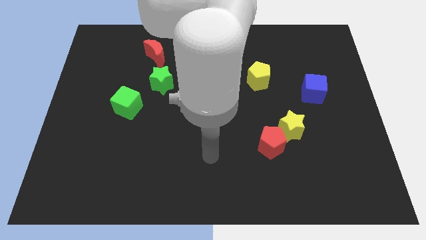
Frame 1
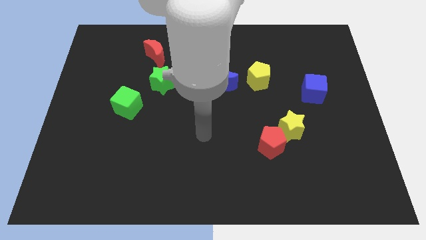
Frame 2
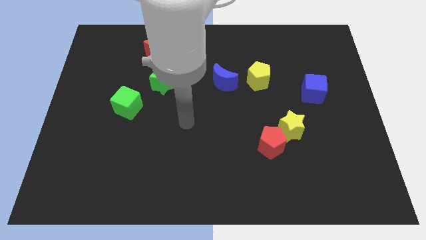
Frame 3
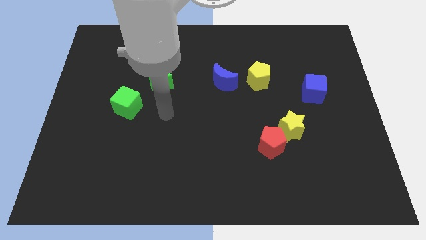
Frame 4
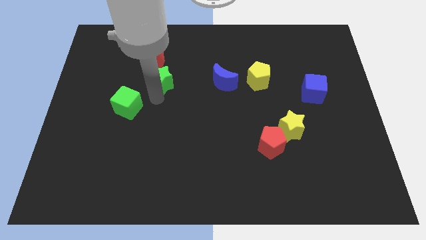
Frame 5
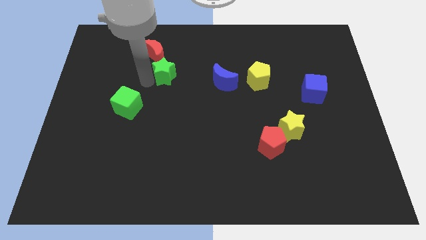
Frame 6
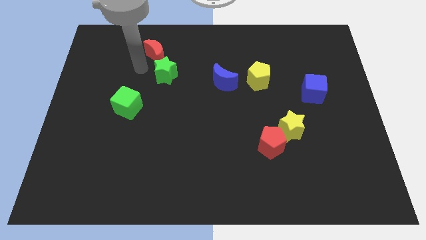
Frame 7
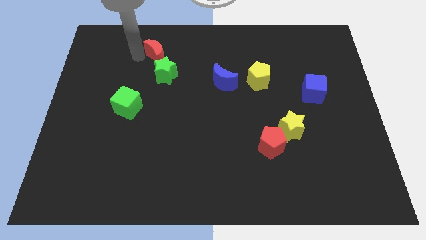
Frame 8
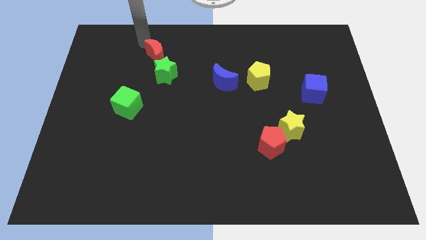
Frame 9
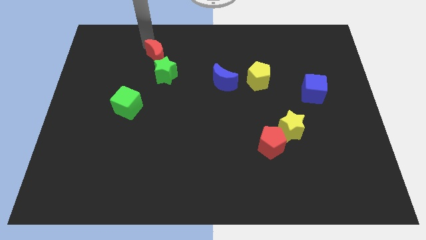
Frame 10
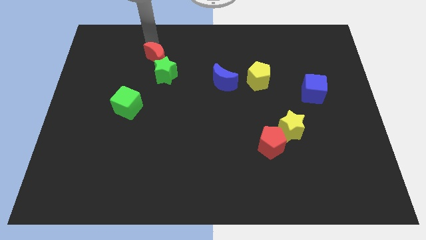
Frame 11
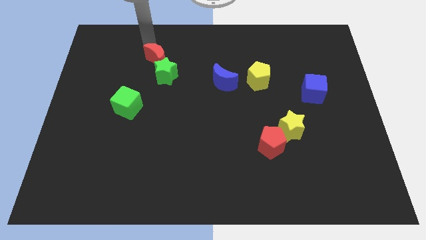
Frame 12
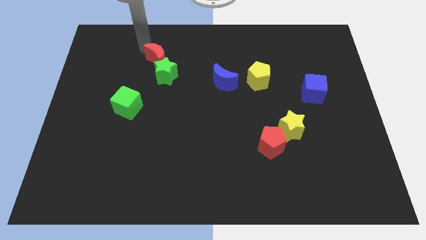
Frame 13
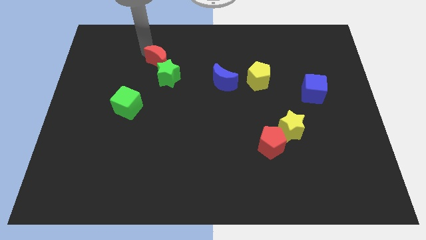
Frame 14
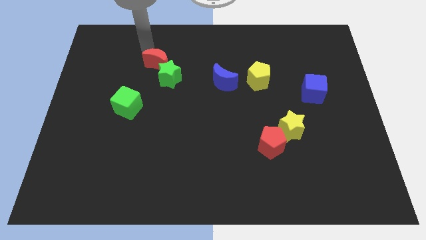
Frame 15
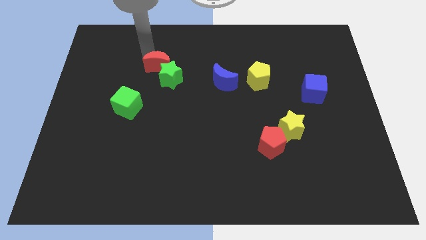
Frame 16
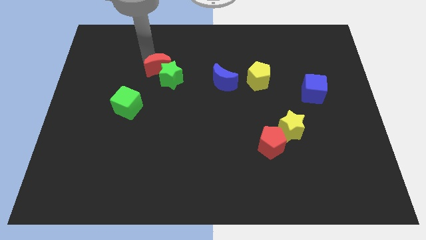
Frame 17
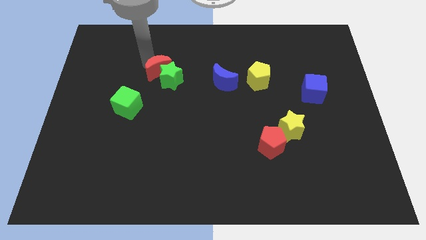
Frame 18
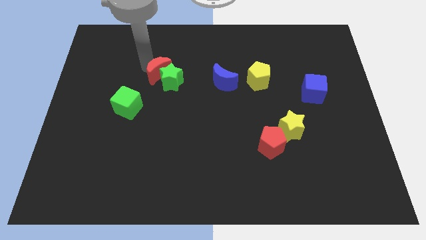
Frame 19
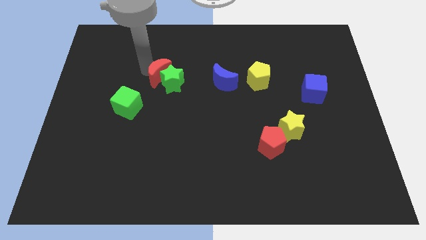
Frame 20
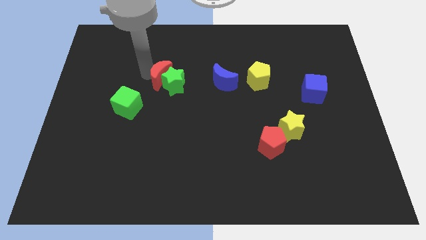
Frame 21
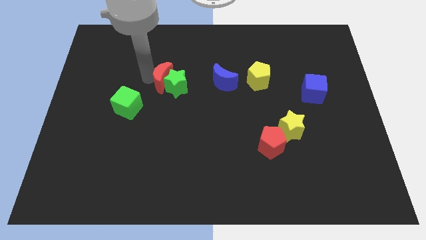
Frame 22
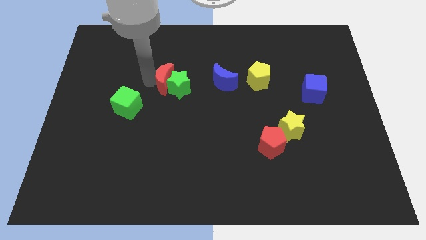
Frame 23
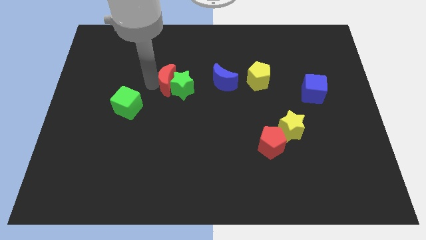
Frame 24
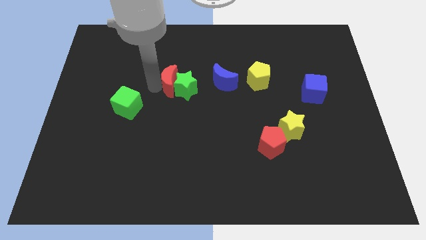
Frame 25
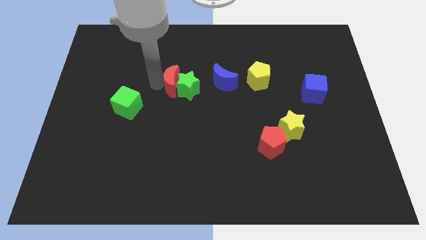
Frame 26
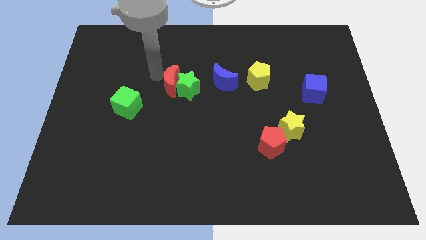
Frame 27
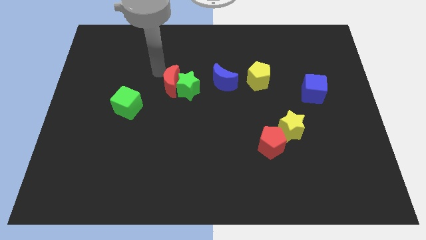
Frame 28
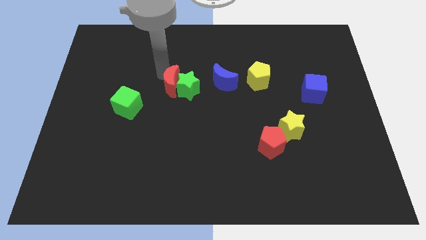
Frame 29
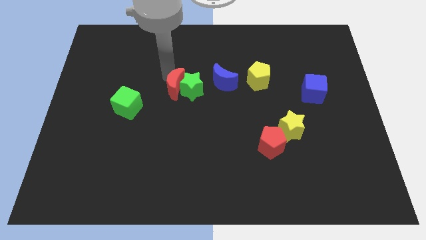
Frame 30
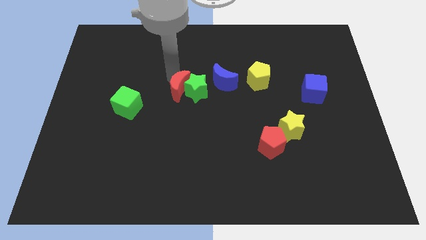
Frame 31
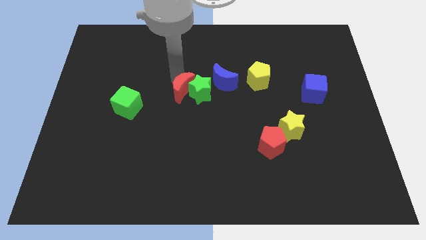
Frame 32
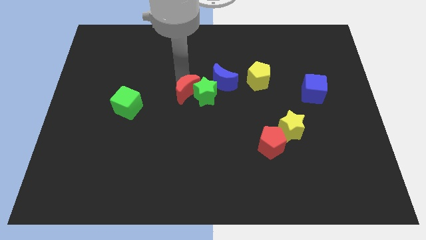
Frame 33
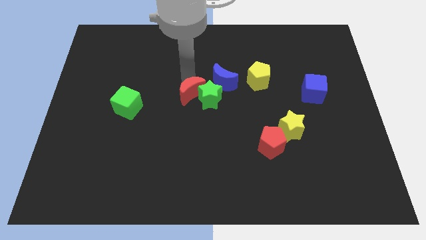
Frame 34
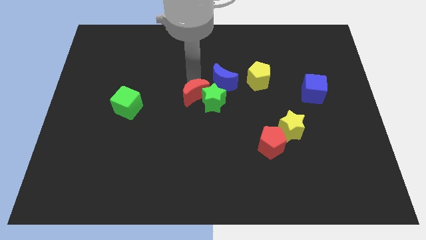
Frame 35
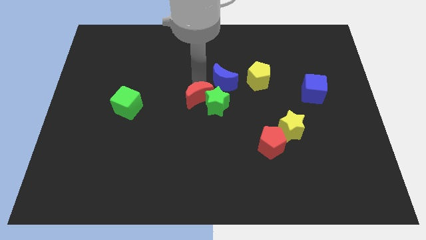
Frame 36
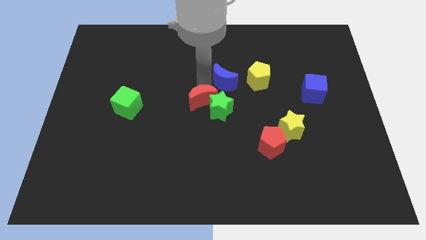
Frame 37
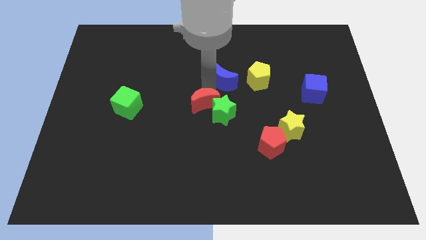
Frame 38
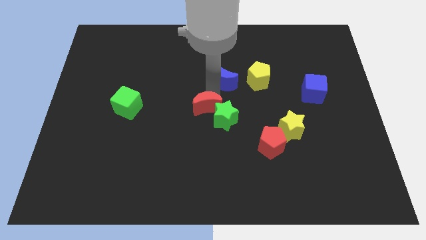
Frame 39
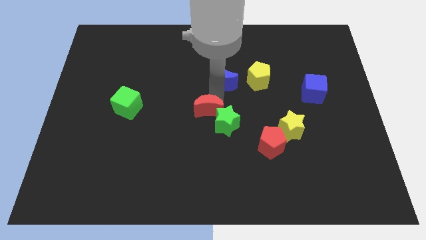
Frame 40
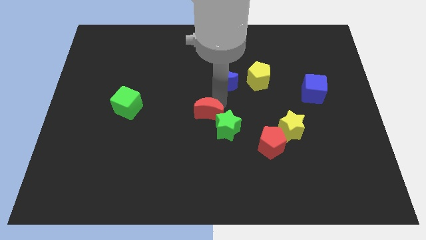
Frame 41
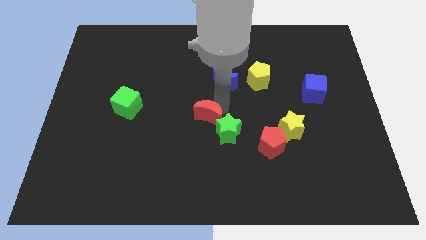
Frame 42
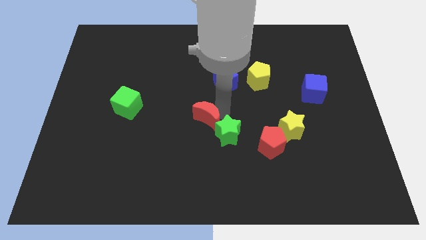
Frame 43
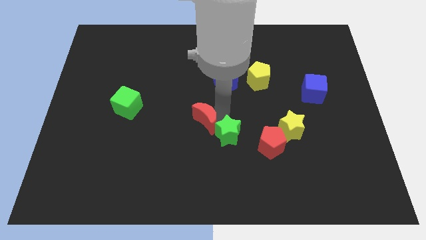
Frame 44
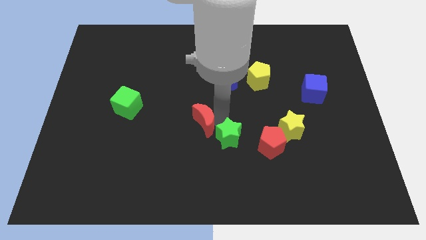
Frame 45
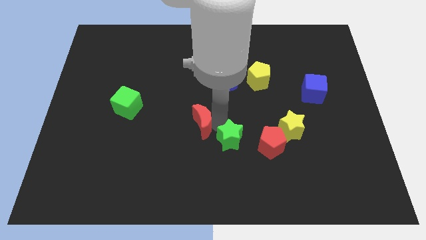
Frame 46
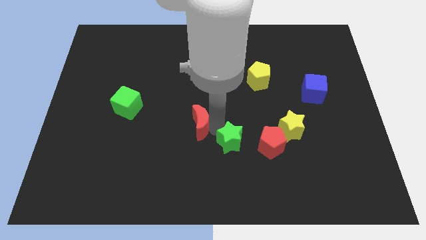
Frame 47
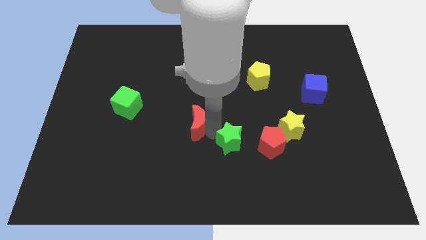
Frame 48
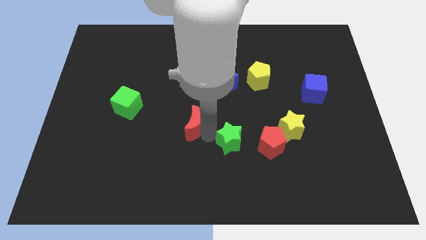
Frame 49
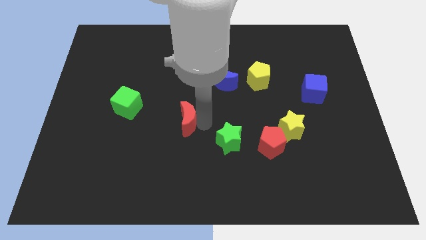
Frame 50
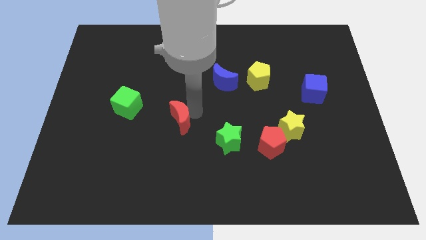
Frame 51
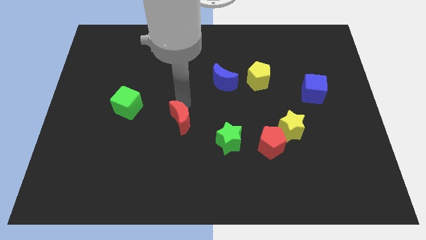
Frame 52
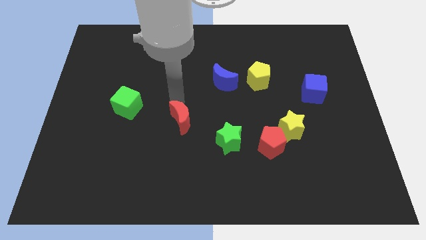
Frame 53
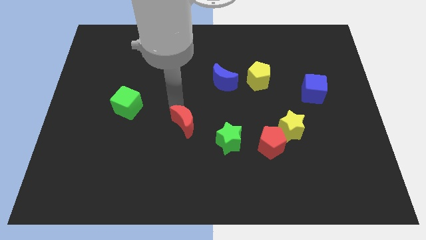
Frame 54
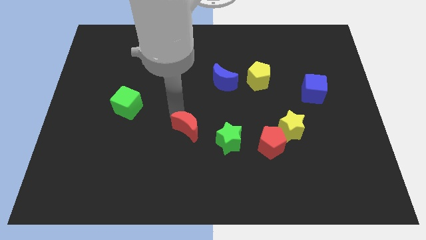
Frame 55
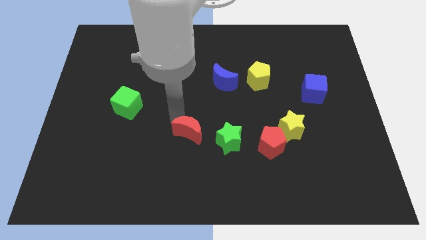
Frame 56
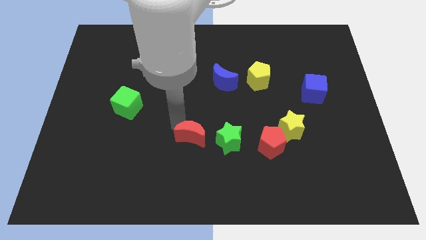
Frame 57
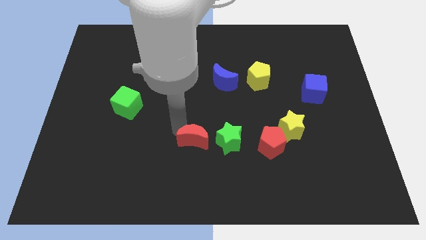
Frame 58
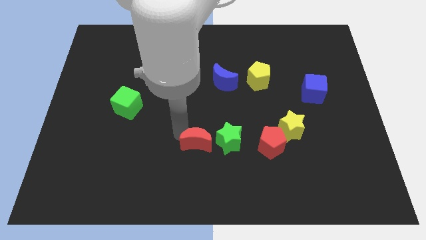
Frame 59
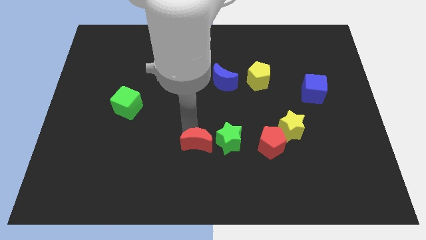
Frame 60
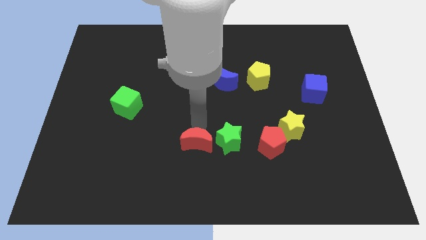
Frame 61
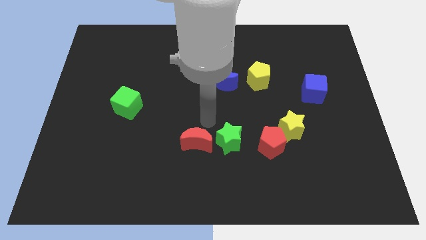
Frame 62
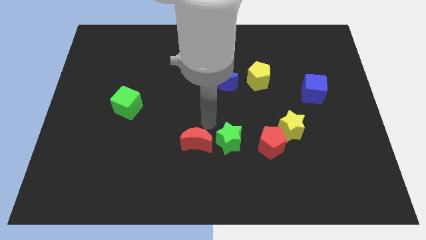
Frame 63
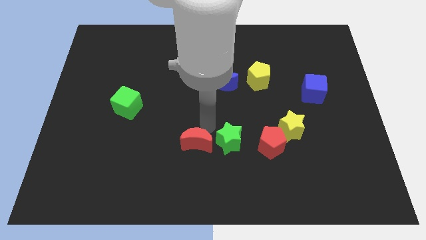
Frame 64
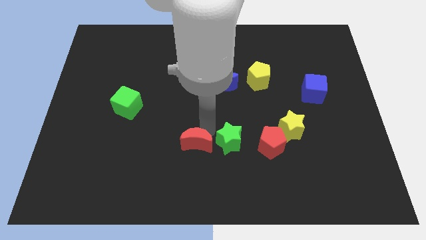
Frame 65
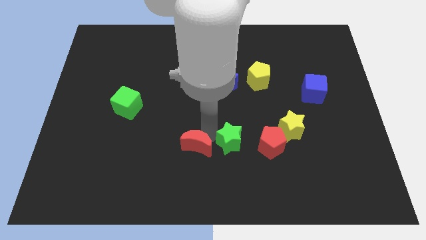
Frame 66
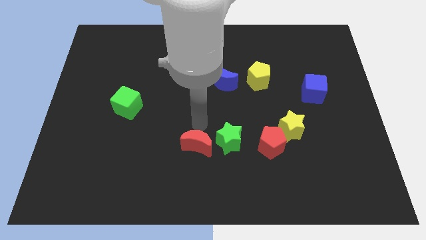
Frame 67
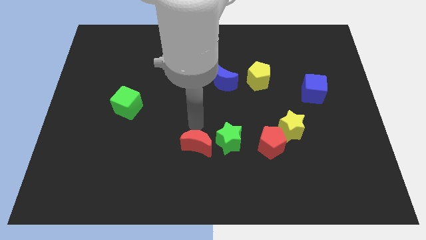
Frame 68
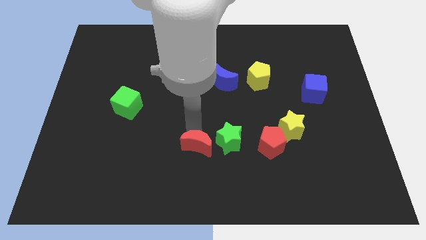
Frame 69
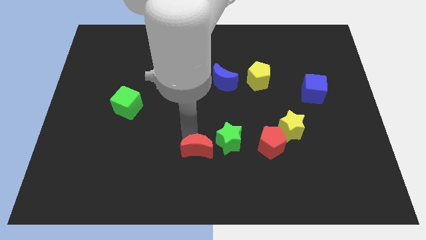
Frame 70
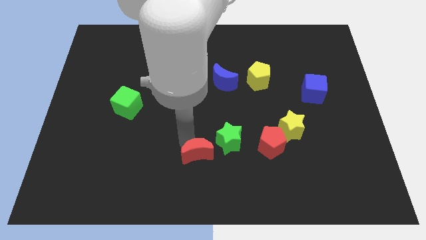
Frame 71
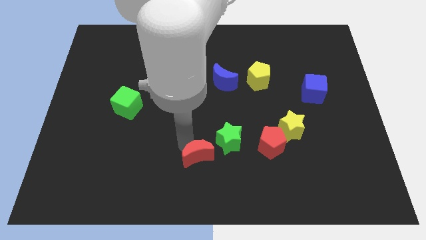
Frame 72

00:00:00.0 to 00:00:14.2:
put the red moon to the bottom side

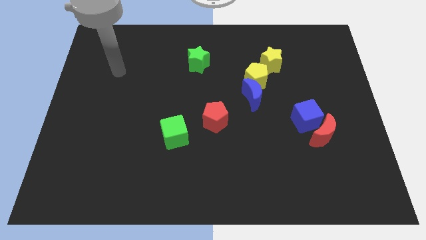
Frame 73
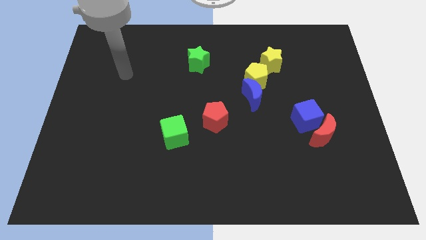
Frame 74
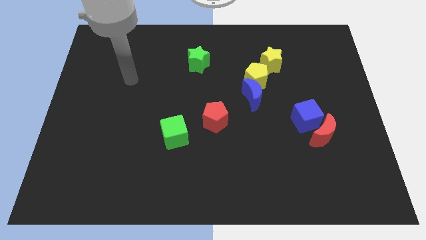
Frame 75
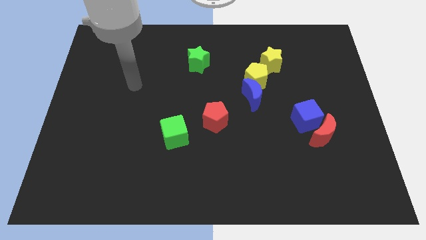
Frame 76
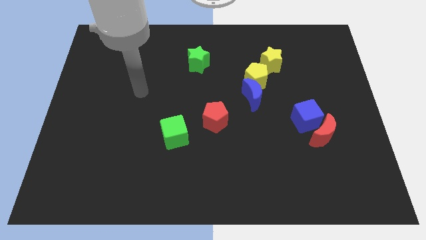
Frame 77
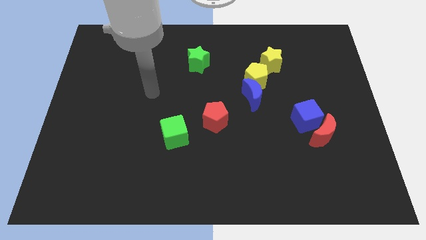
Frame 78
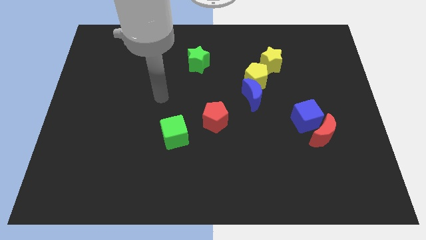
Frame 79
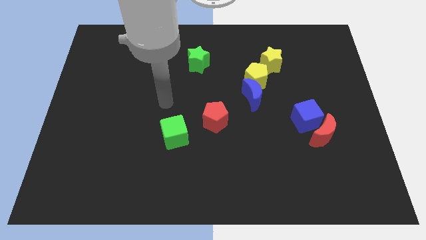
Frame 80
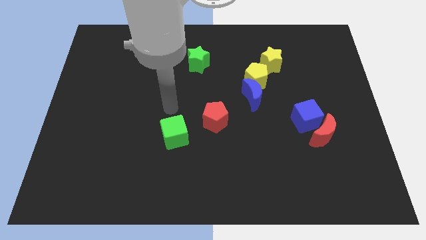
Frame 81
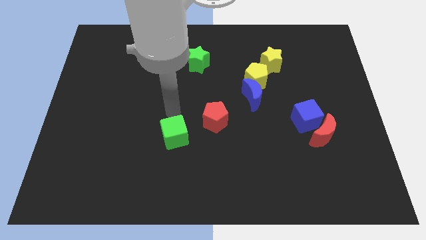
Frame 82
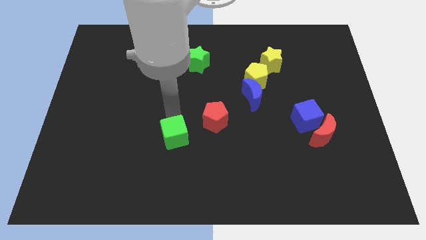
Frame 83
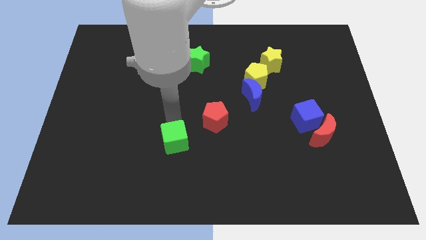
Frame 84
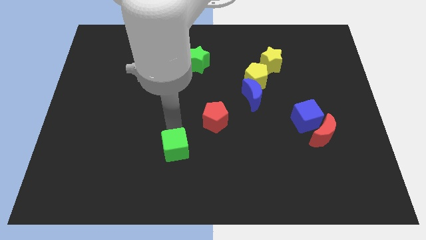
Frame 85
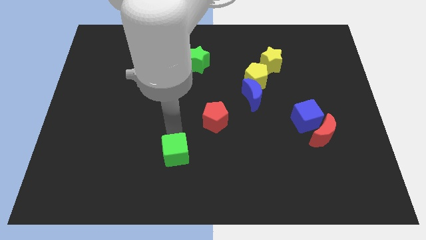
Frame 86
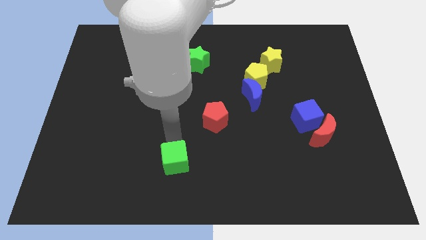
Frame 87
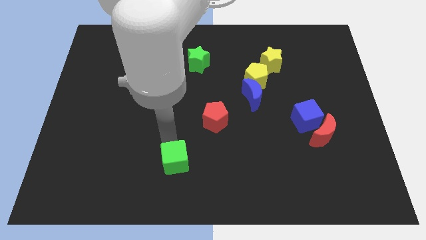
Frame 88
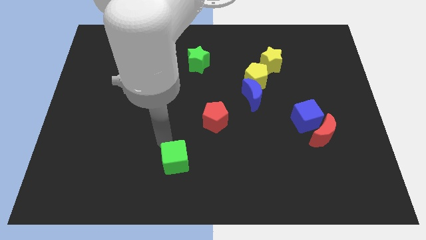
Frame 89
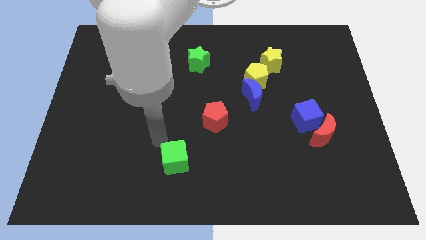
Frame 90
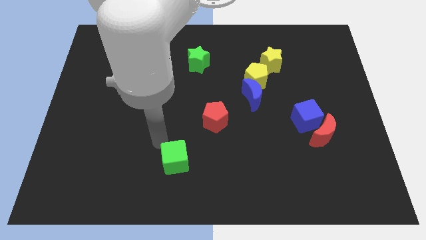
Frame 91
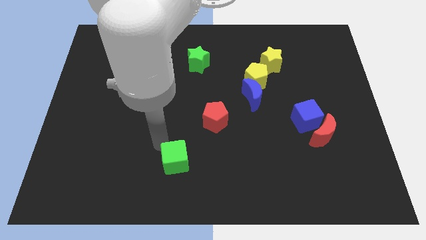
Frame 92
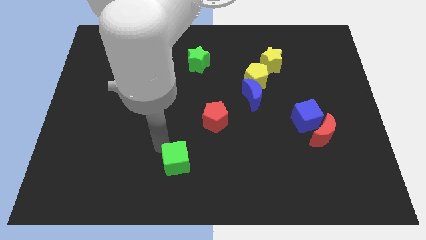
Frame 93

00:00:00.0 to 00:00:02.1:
put the green cube to the bottom
